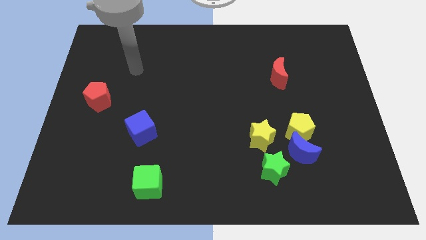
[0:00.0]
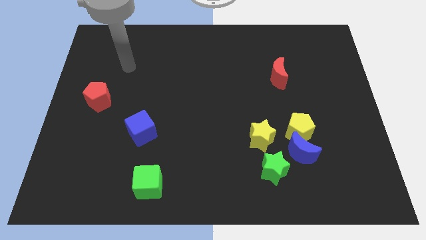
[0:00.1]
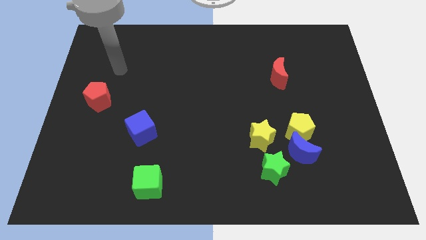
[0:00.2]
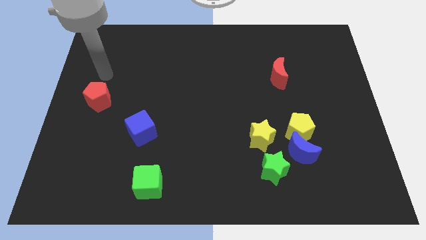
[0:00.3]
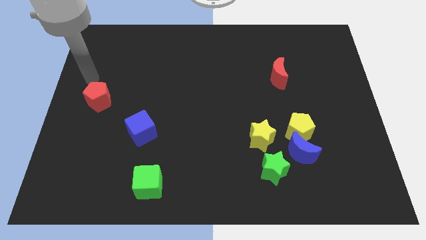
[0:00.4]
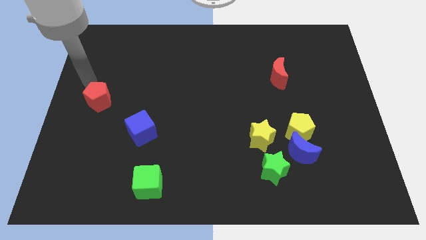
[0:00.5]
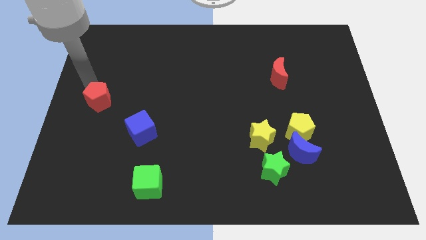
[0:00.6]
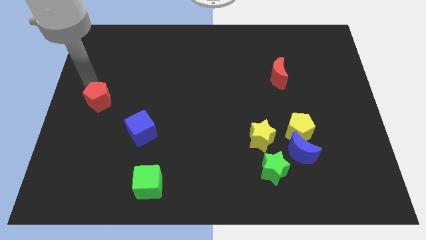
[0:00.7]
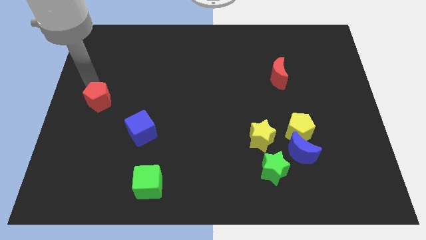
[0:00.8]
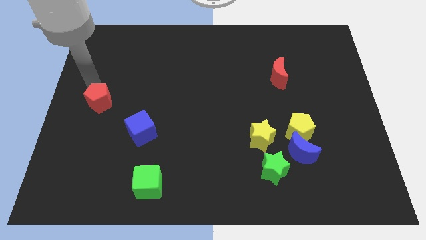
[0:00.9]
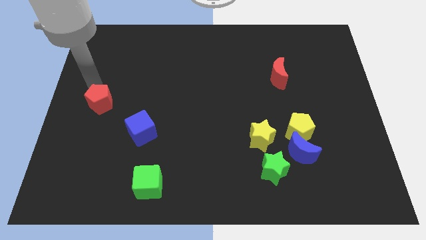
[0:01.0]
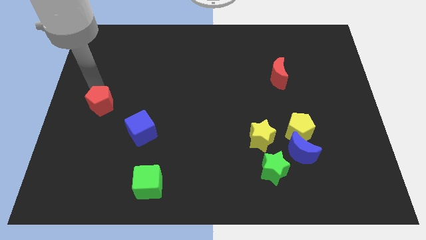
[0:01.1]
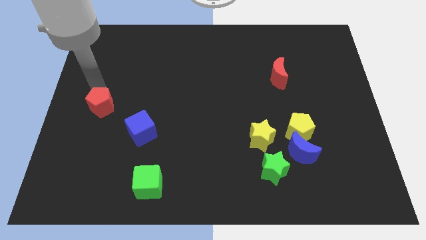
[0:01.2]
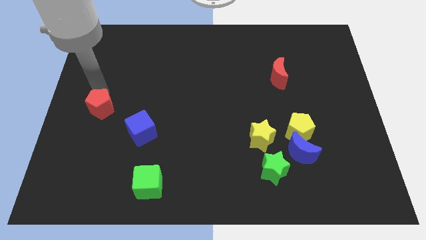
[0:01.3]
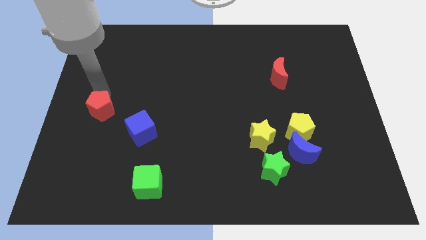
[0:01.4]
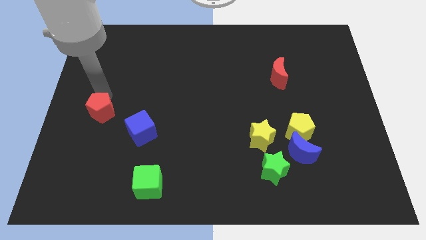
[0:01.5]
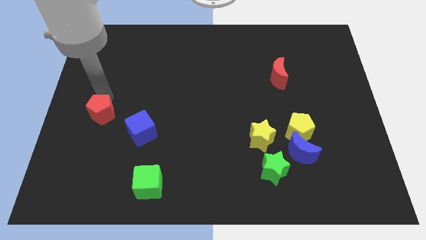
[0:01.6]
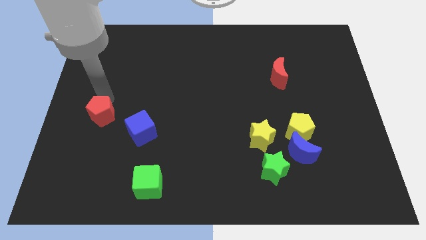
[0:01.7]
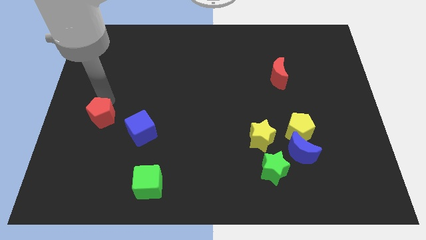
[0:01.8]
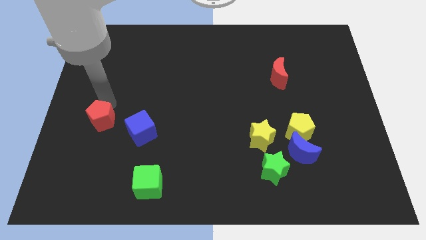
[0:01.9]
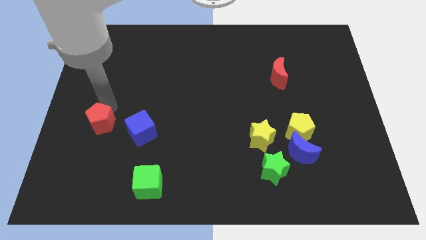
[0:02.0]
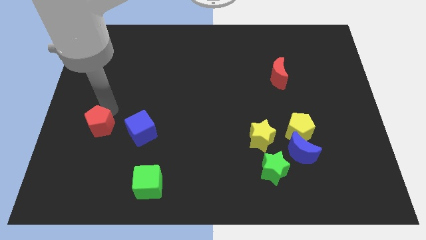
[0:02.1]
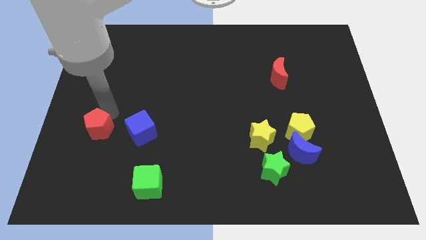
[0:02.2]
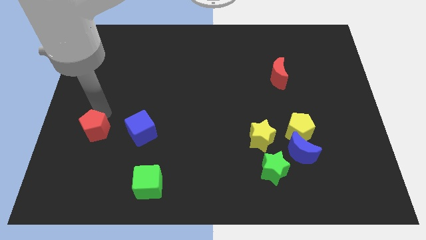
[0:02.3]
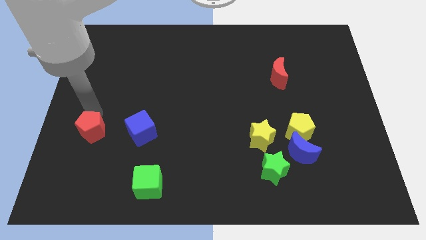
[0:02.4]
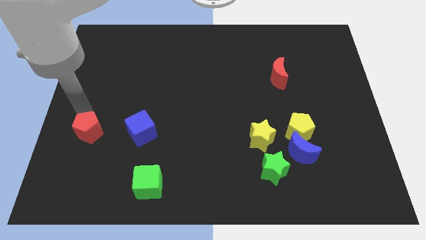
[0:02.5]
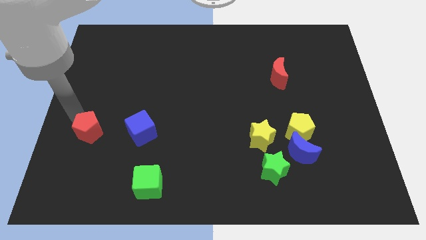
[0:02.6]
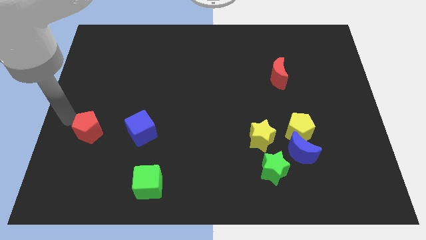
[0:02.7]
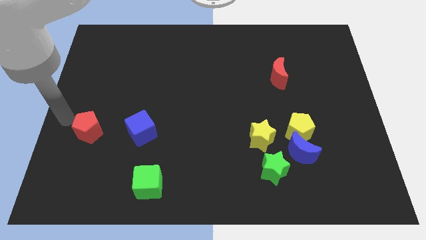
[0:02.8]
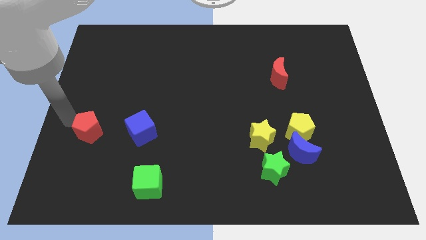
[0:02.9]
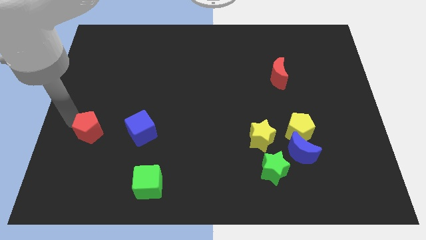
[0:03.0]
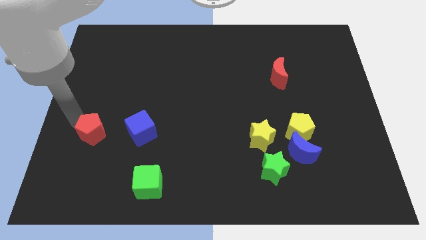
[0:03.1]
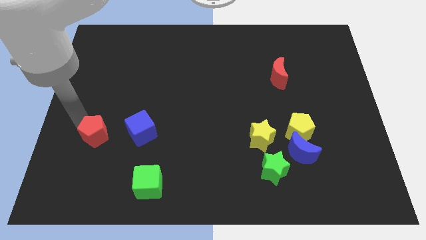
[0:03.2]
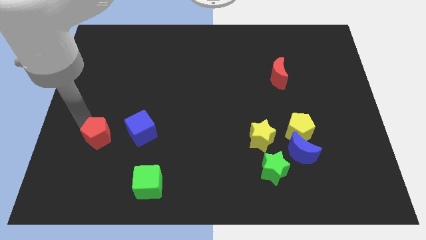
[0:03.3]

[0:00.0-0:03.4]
move the red pentagon slightly downwards and right

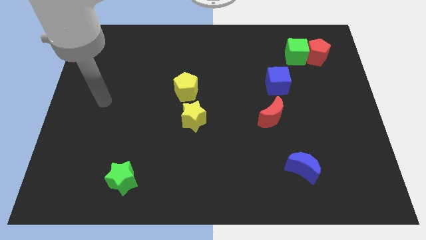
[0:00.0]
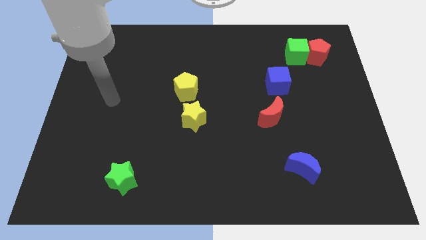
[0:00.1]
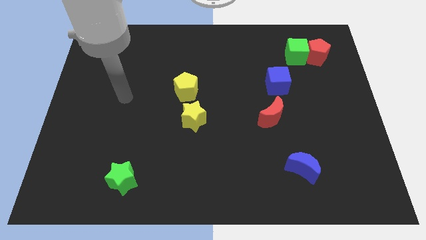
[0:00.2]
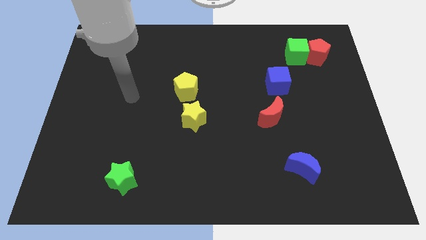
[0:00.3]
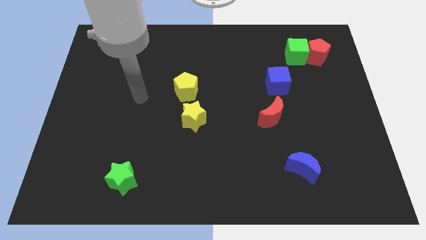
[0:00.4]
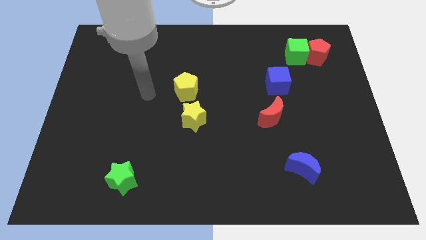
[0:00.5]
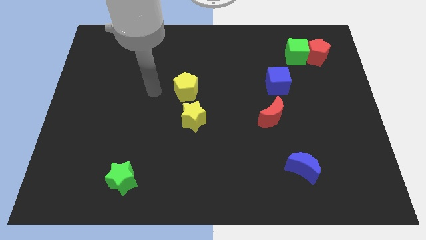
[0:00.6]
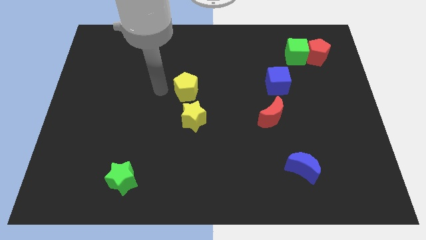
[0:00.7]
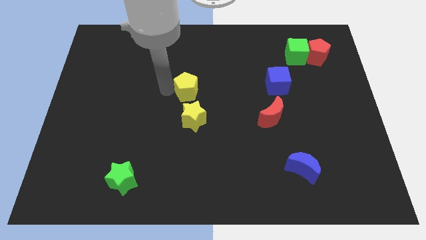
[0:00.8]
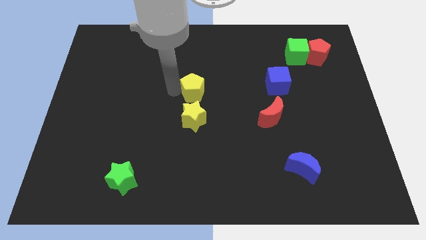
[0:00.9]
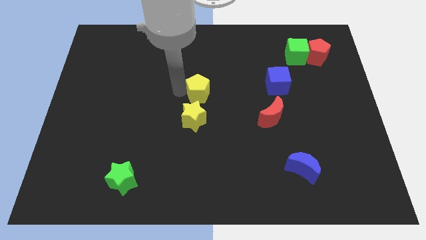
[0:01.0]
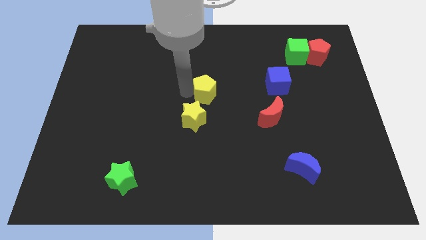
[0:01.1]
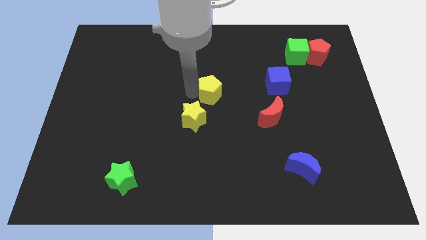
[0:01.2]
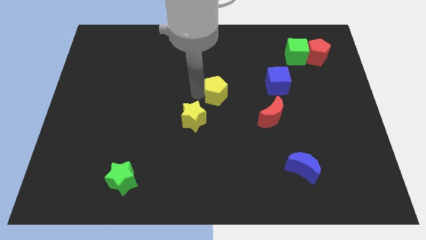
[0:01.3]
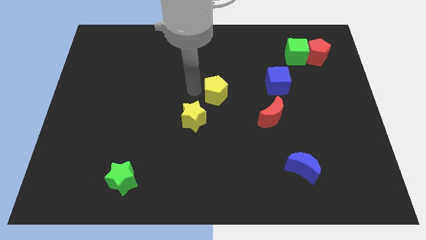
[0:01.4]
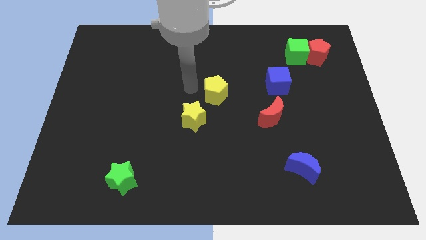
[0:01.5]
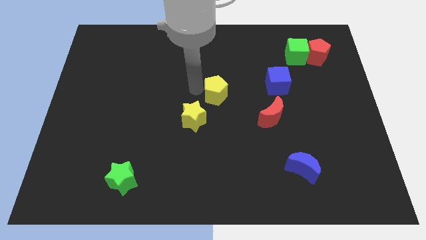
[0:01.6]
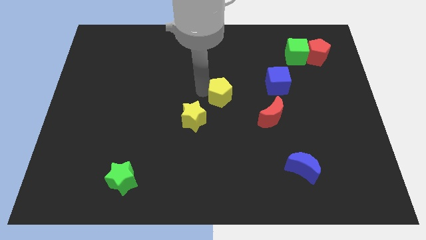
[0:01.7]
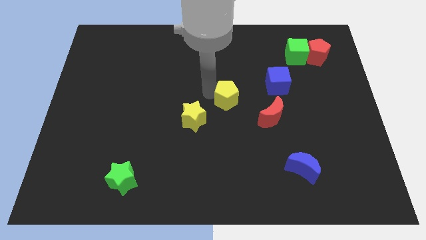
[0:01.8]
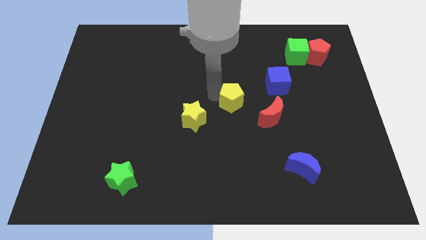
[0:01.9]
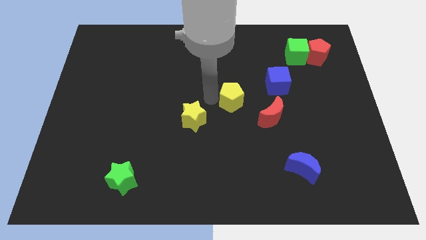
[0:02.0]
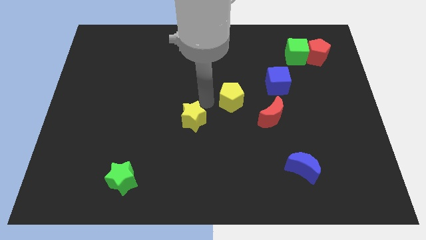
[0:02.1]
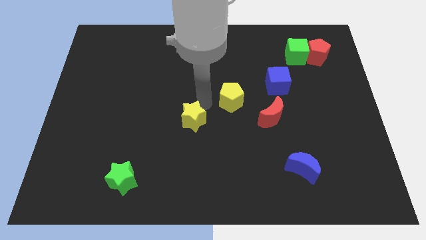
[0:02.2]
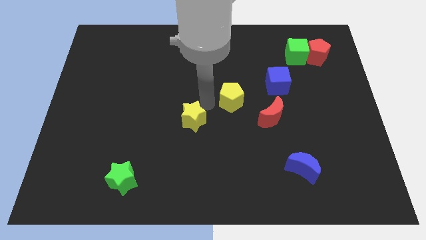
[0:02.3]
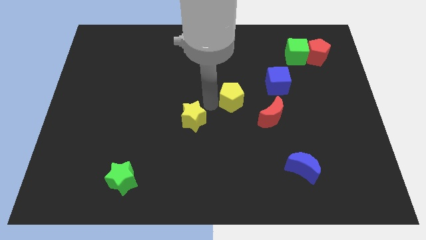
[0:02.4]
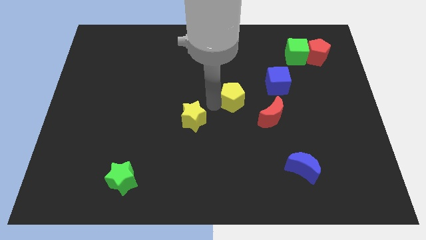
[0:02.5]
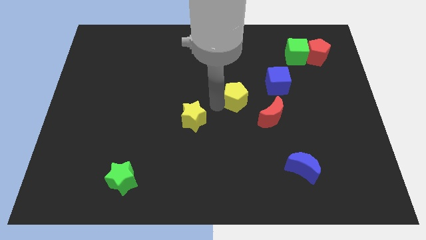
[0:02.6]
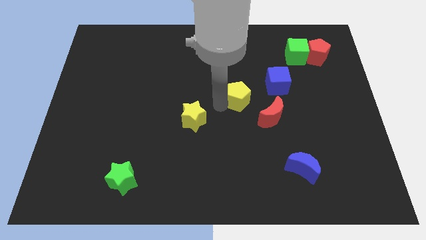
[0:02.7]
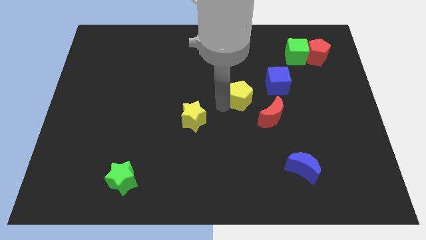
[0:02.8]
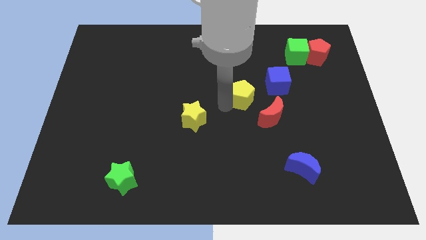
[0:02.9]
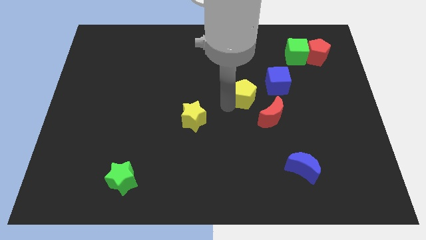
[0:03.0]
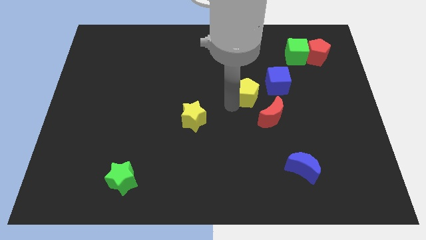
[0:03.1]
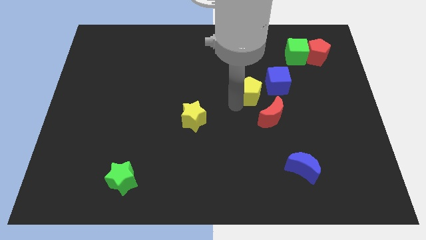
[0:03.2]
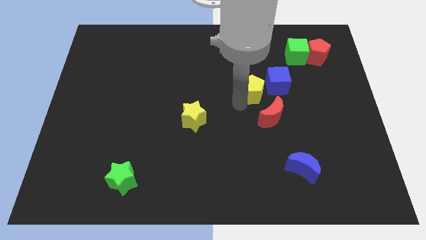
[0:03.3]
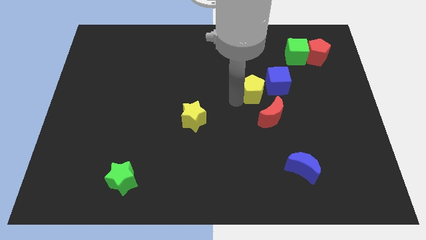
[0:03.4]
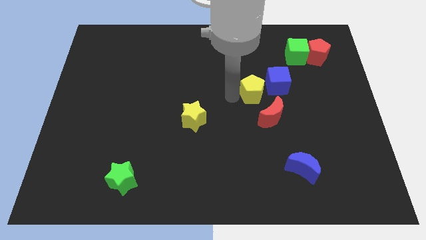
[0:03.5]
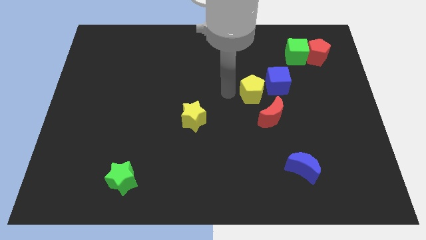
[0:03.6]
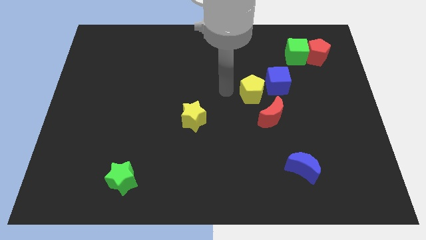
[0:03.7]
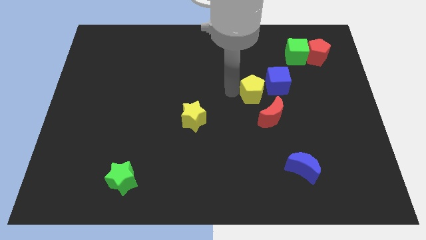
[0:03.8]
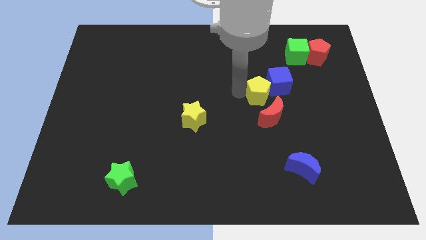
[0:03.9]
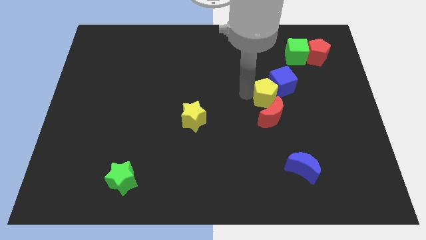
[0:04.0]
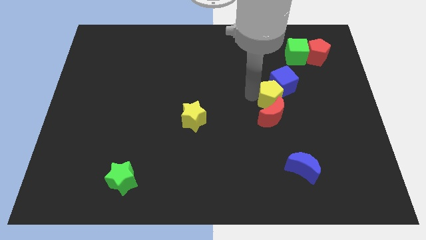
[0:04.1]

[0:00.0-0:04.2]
slide the yellow pentagon to the right

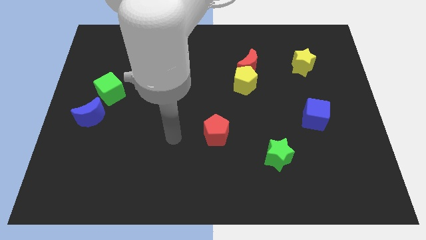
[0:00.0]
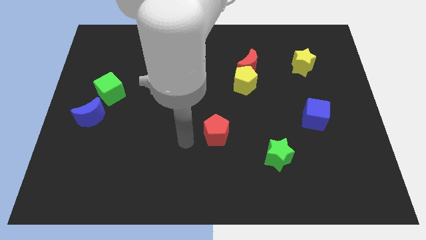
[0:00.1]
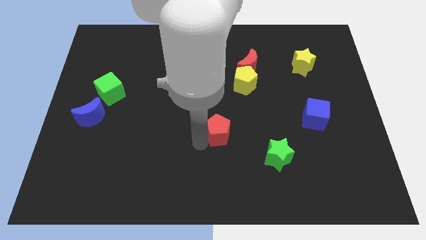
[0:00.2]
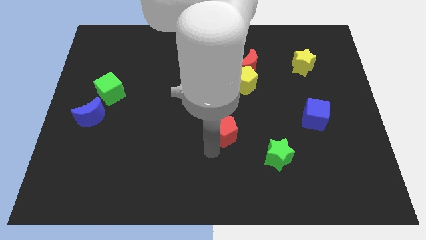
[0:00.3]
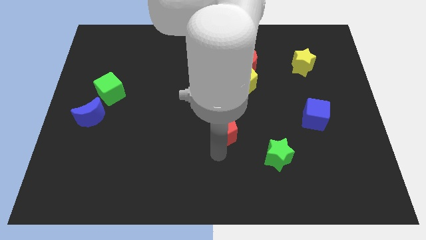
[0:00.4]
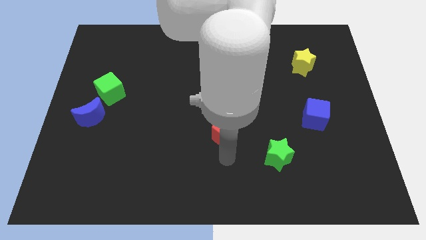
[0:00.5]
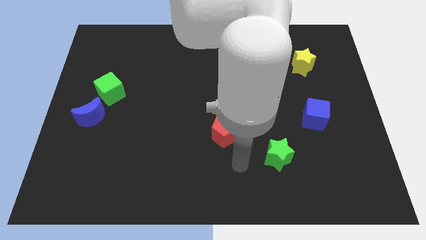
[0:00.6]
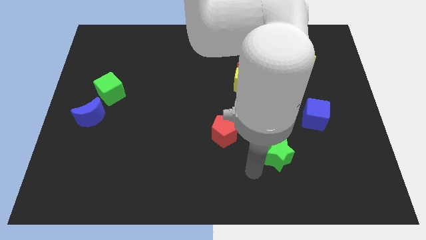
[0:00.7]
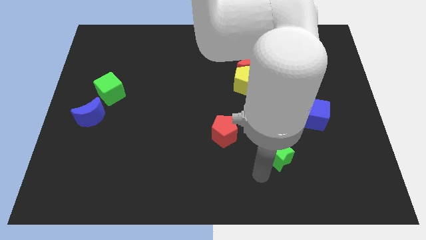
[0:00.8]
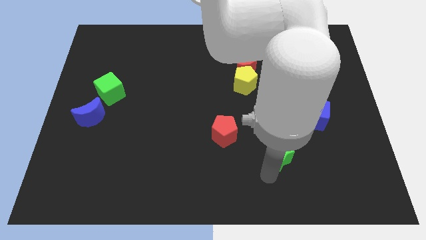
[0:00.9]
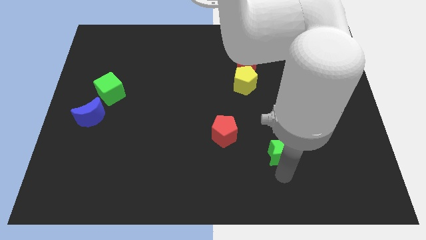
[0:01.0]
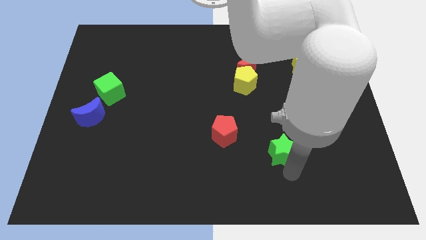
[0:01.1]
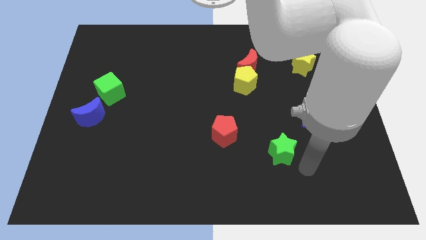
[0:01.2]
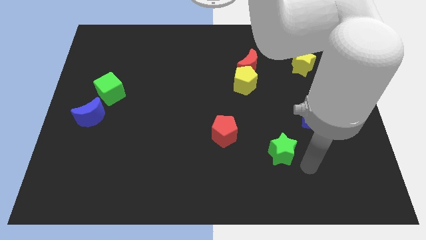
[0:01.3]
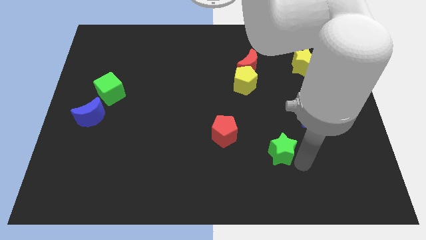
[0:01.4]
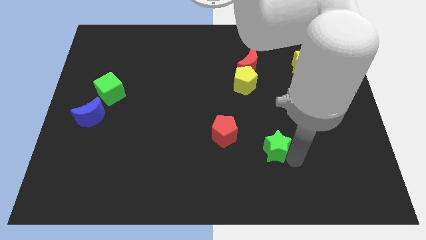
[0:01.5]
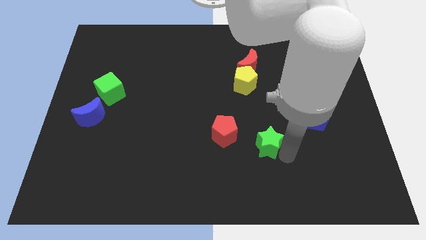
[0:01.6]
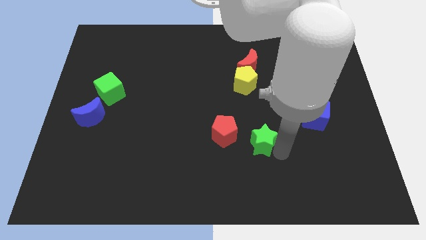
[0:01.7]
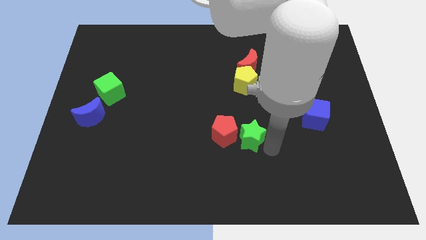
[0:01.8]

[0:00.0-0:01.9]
slightly push the green star diagonally upwards and to the left
